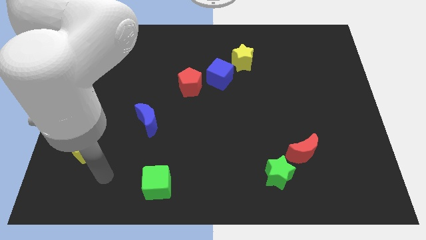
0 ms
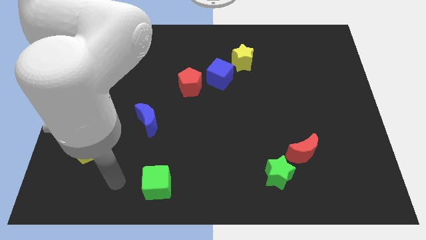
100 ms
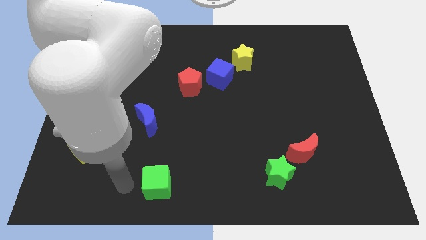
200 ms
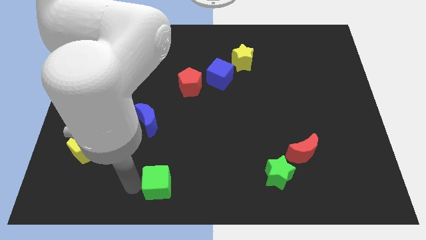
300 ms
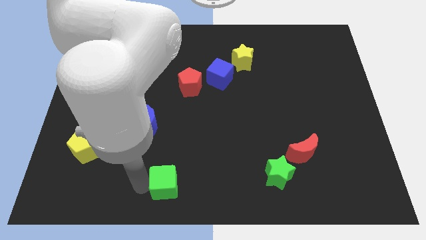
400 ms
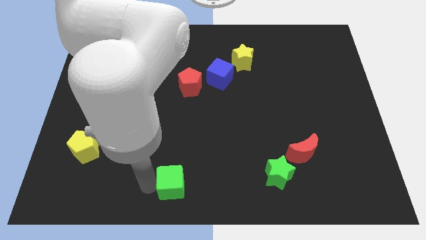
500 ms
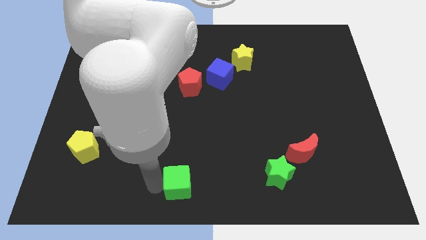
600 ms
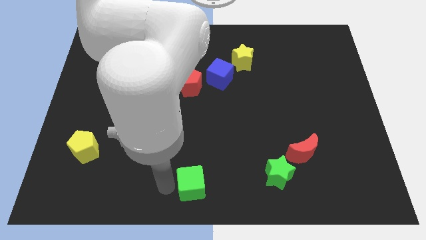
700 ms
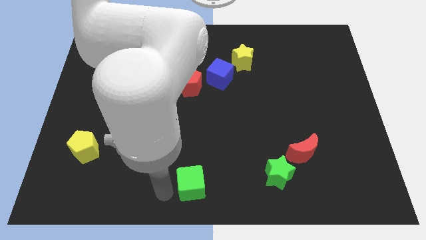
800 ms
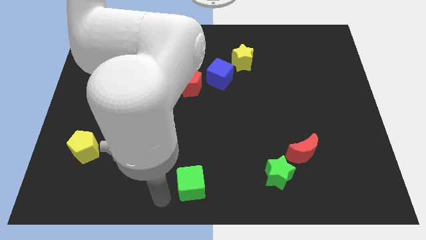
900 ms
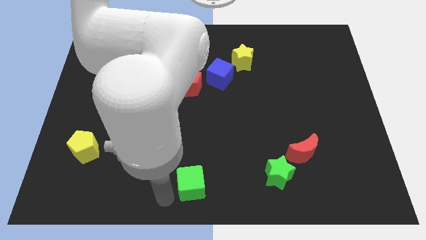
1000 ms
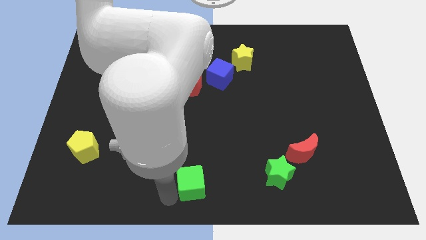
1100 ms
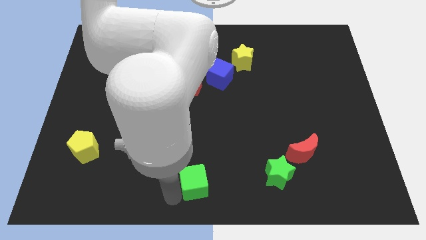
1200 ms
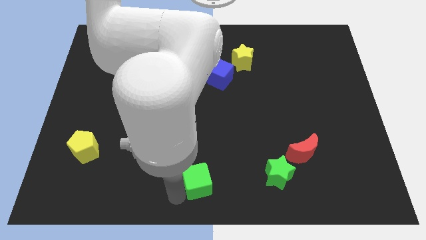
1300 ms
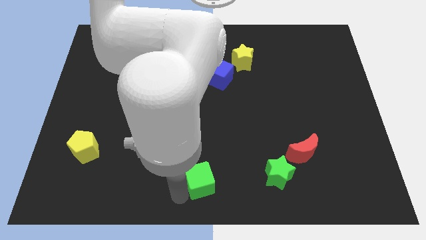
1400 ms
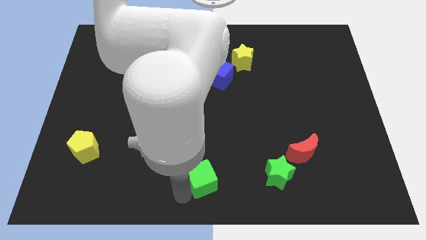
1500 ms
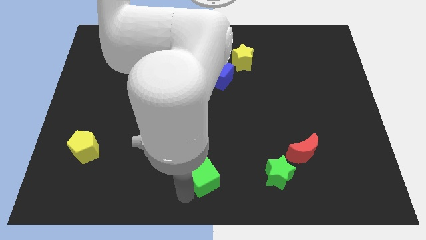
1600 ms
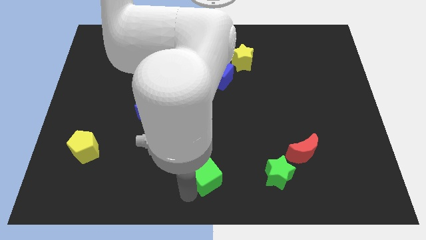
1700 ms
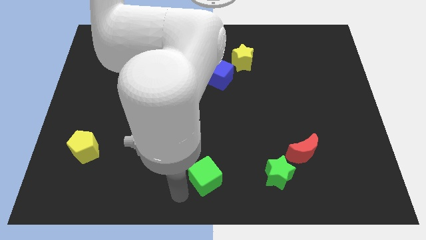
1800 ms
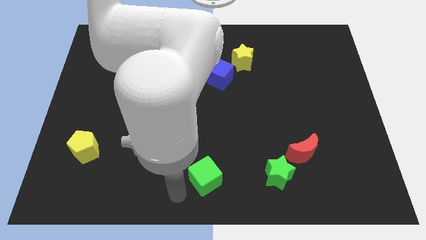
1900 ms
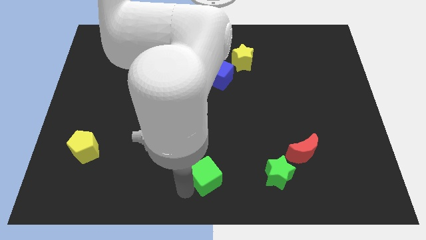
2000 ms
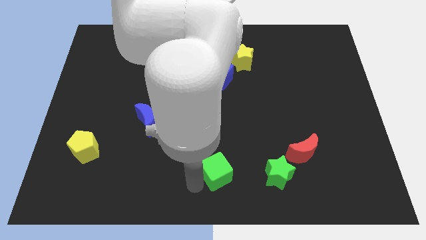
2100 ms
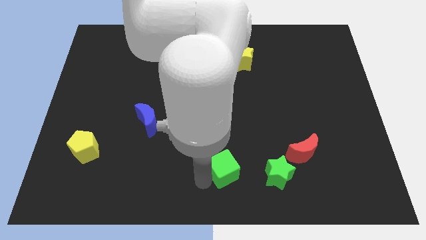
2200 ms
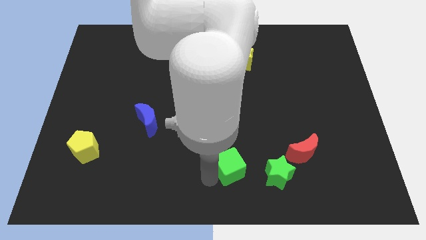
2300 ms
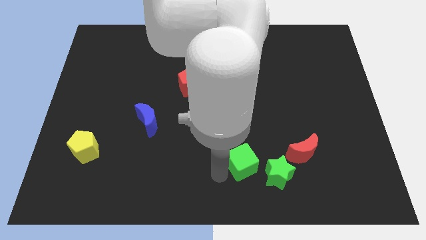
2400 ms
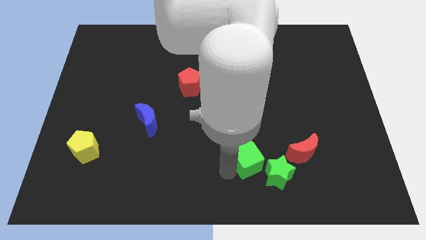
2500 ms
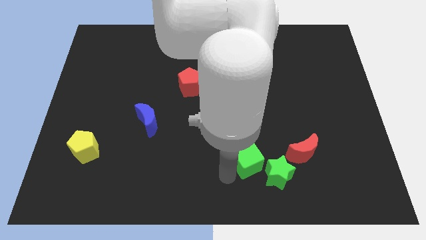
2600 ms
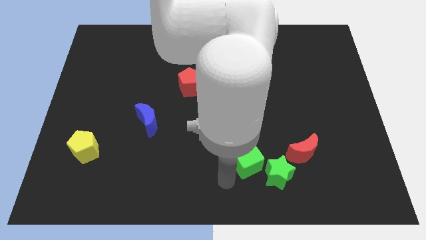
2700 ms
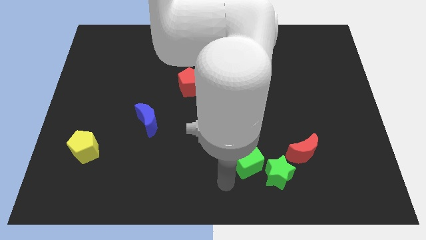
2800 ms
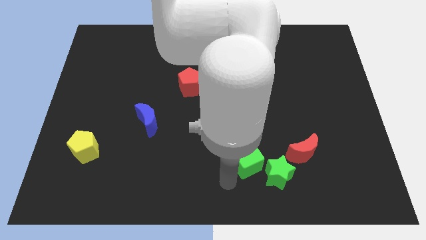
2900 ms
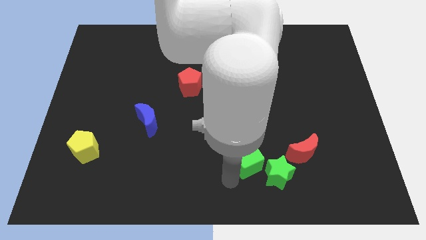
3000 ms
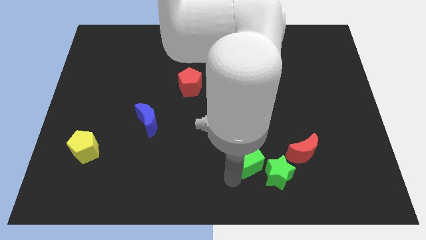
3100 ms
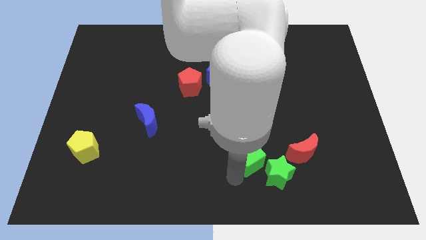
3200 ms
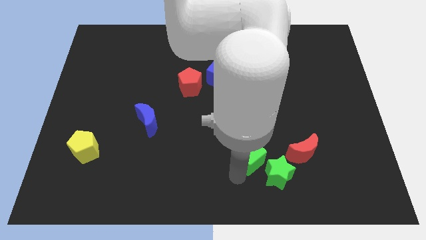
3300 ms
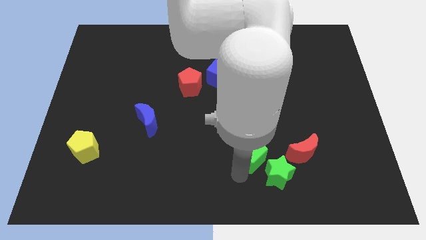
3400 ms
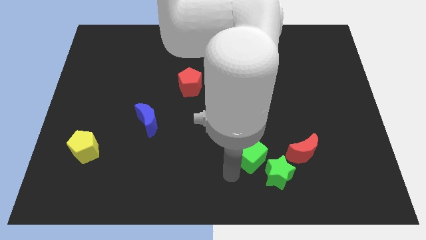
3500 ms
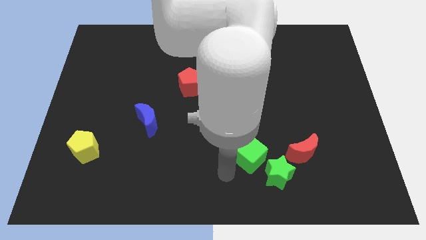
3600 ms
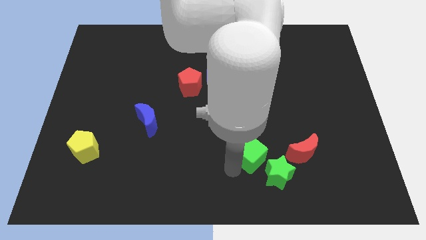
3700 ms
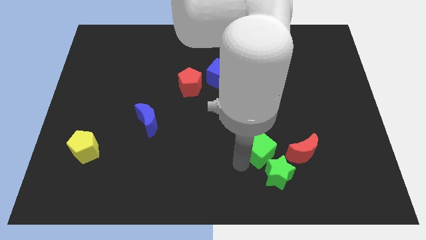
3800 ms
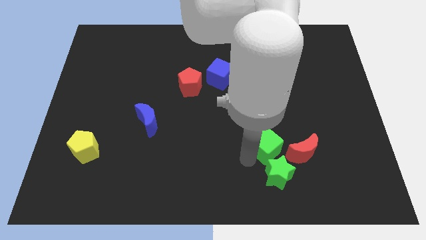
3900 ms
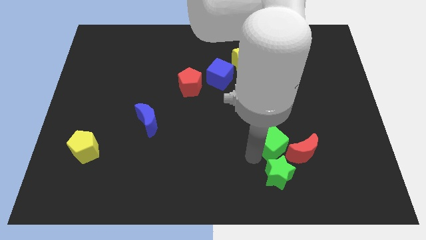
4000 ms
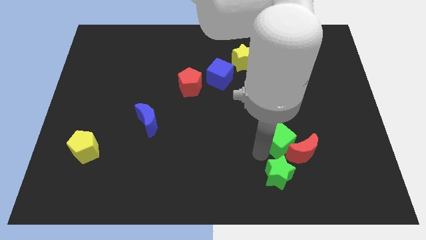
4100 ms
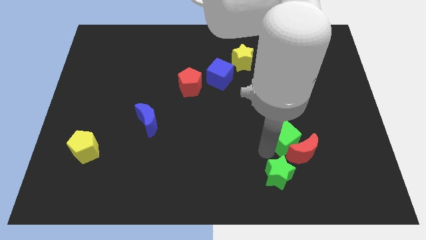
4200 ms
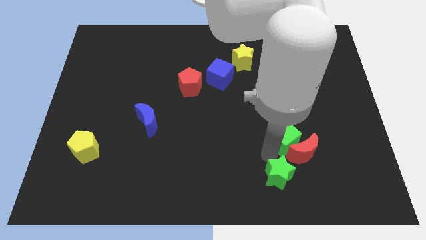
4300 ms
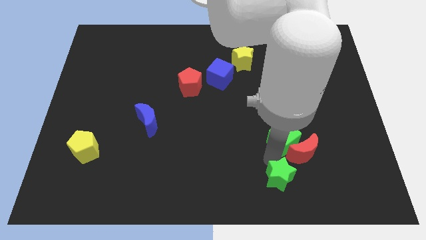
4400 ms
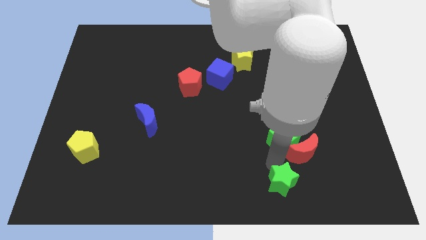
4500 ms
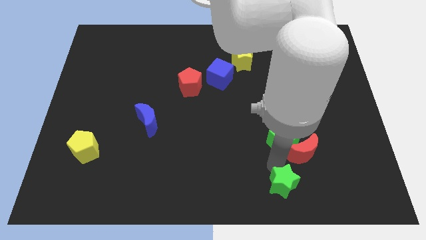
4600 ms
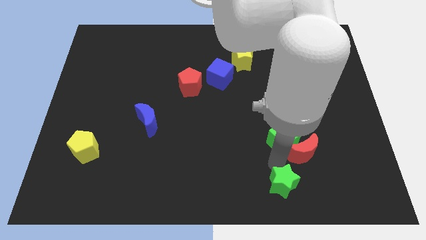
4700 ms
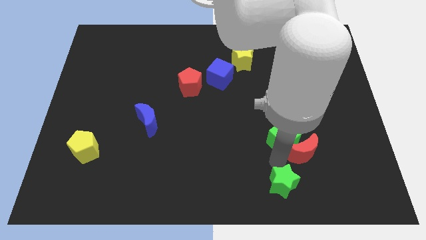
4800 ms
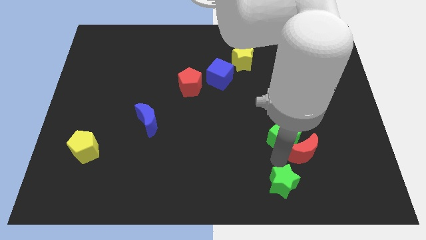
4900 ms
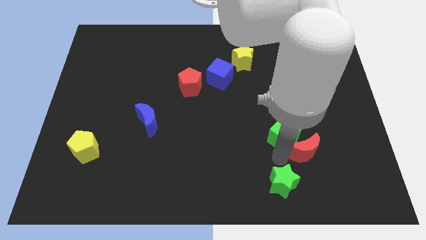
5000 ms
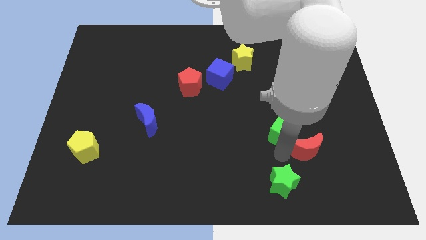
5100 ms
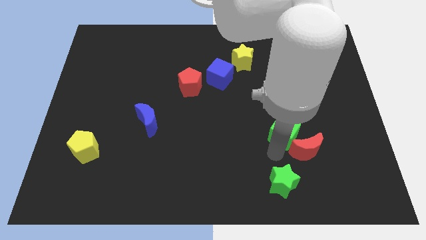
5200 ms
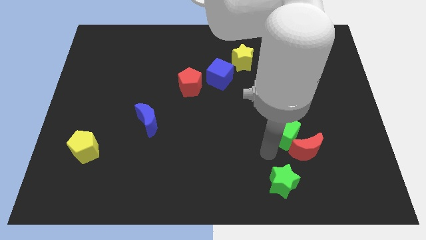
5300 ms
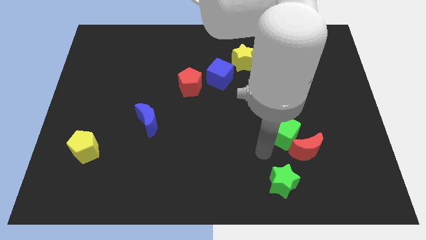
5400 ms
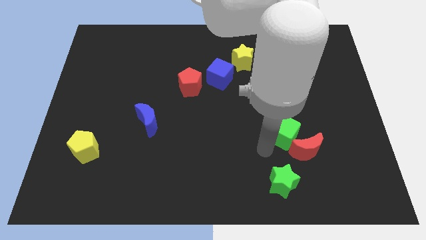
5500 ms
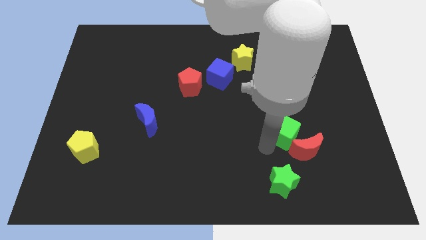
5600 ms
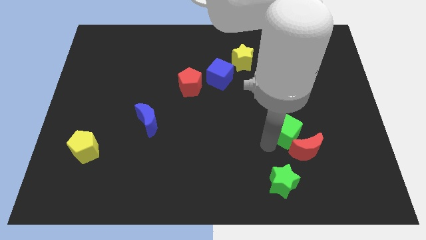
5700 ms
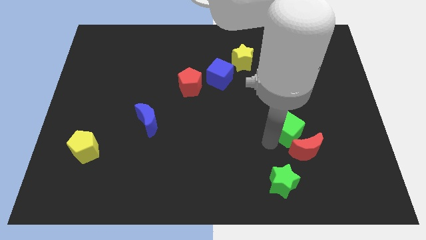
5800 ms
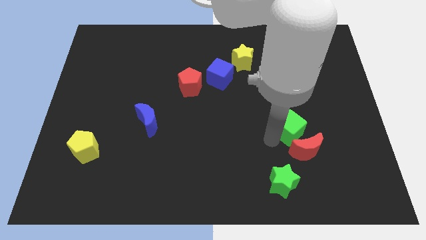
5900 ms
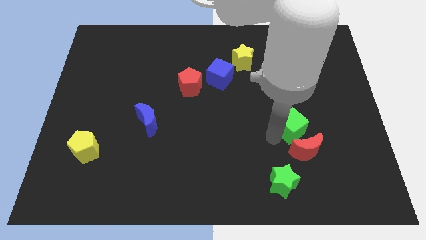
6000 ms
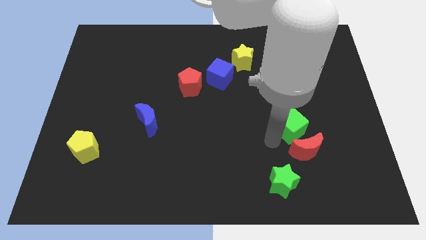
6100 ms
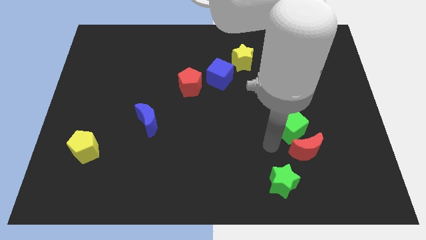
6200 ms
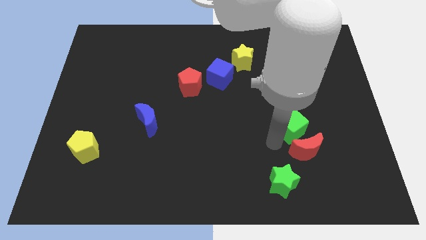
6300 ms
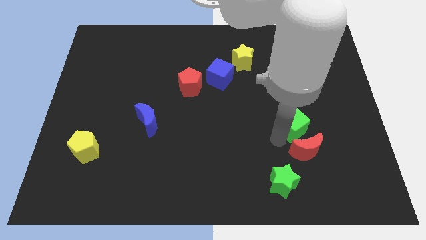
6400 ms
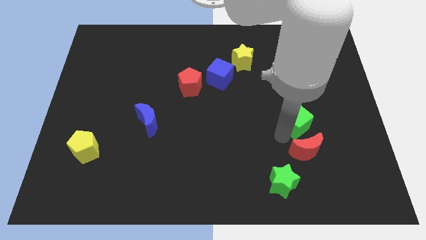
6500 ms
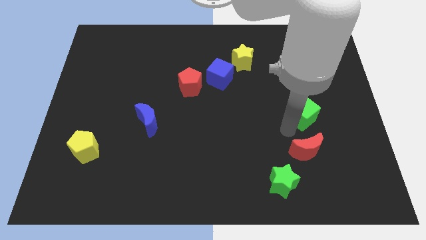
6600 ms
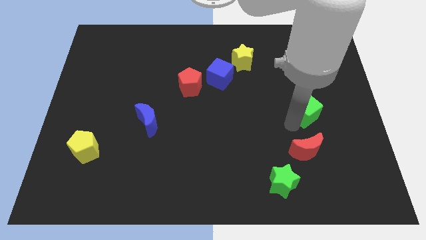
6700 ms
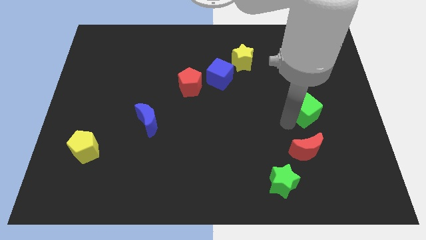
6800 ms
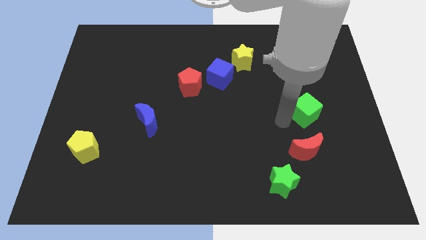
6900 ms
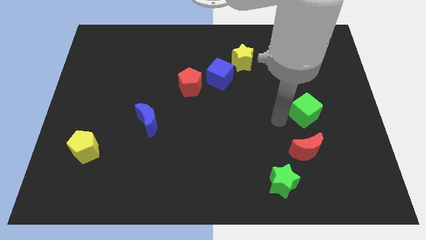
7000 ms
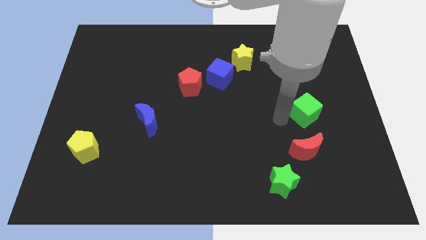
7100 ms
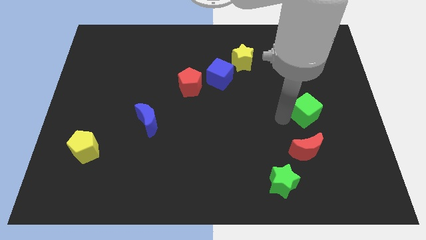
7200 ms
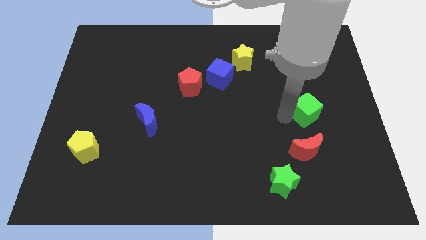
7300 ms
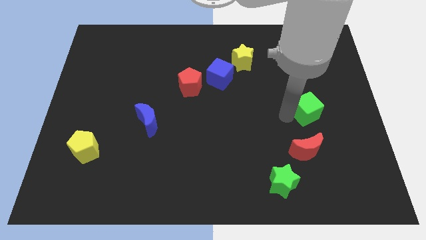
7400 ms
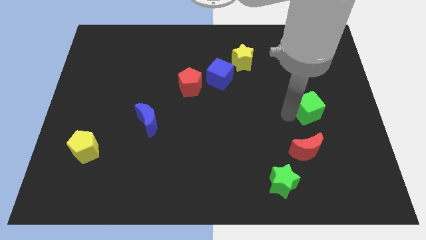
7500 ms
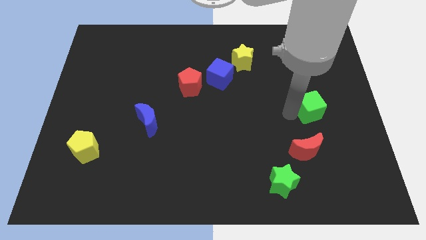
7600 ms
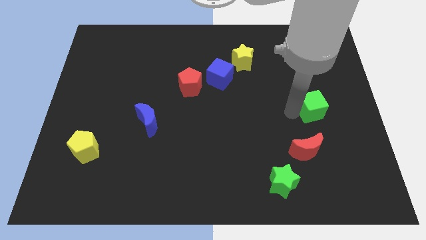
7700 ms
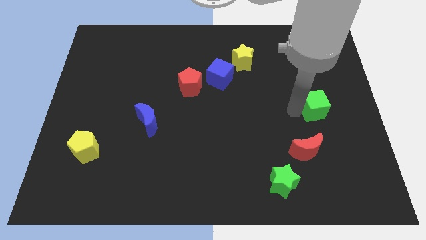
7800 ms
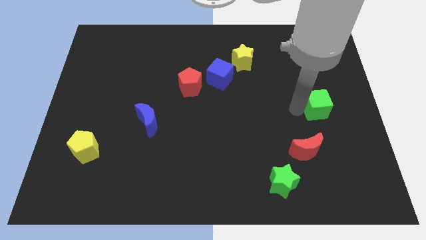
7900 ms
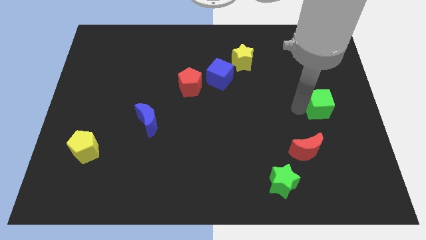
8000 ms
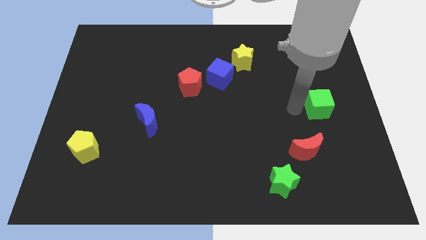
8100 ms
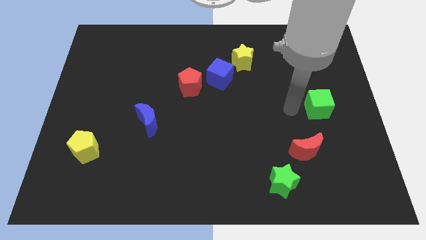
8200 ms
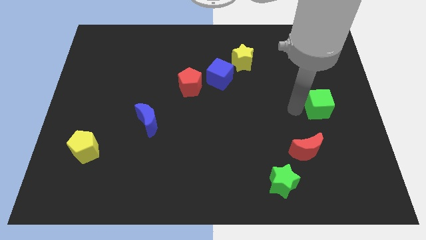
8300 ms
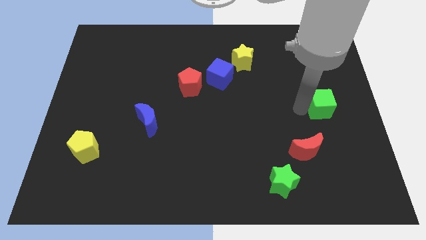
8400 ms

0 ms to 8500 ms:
slide the green cube to the center right
